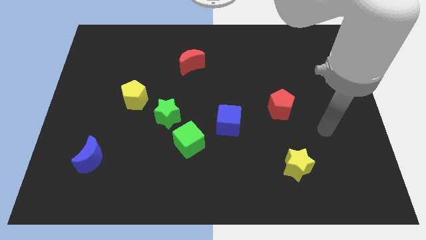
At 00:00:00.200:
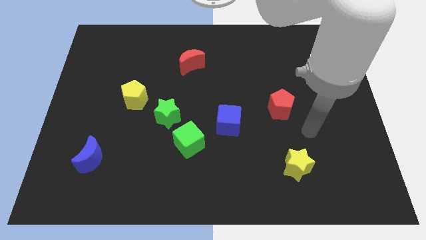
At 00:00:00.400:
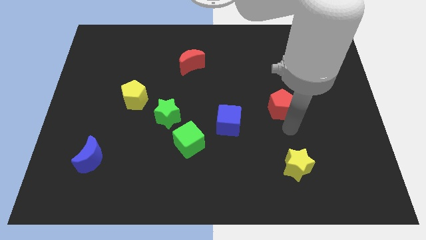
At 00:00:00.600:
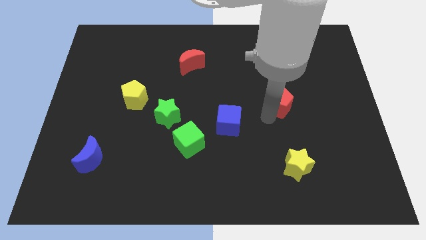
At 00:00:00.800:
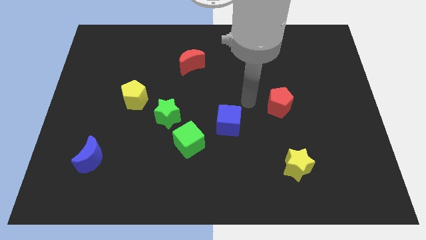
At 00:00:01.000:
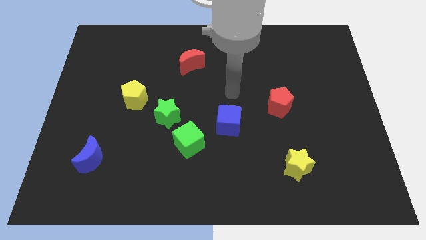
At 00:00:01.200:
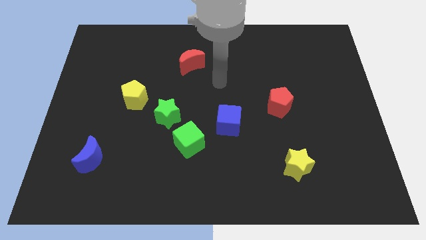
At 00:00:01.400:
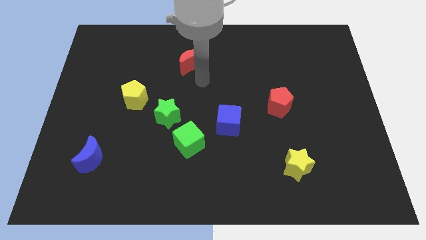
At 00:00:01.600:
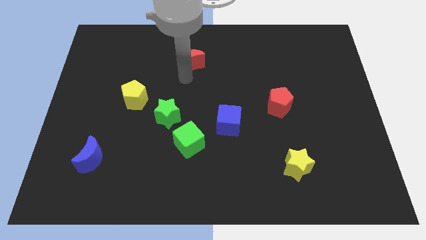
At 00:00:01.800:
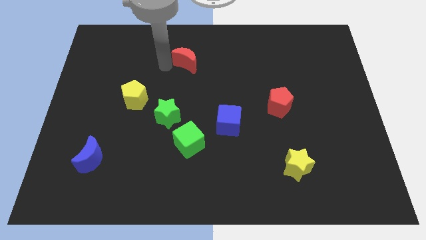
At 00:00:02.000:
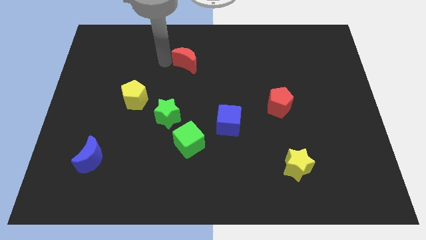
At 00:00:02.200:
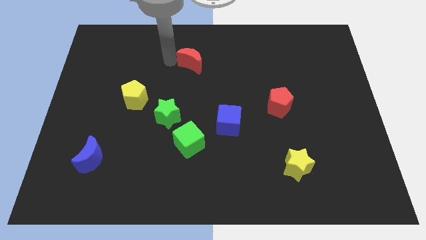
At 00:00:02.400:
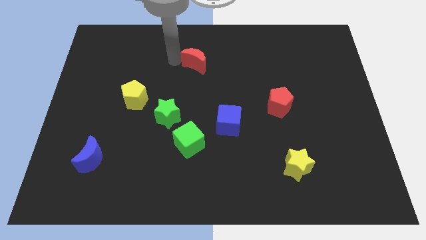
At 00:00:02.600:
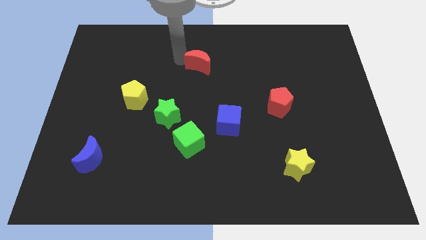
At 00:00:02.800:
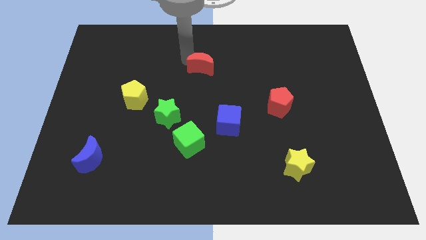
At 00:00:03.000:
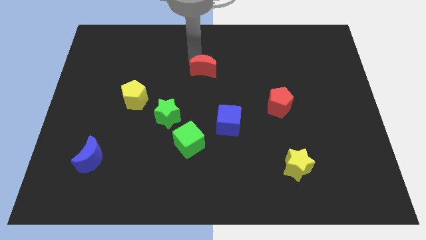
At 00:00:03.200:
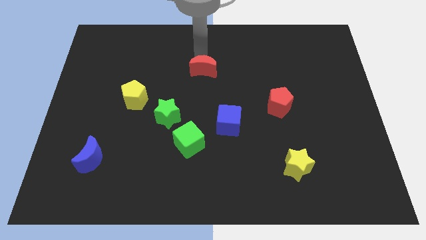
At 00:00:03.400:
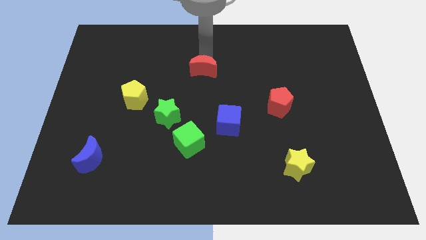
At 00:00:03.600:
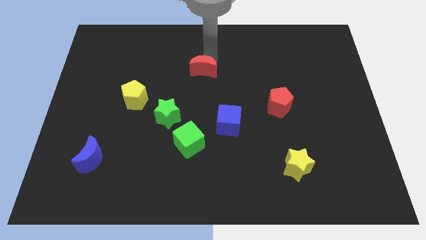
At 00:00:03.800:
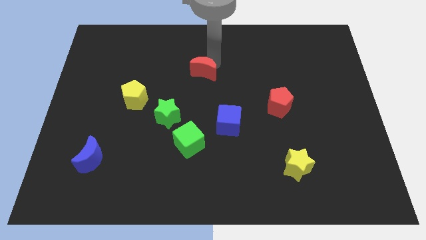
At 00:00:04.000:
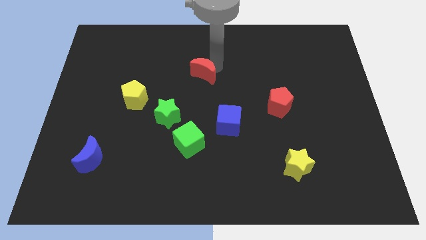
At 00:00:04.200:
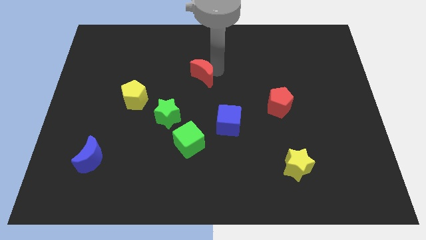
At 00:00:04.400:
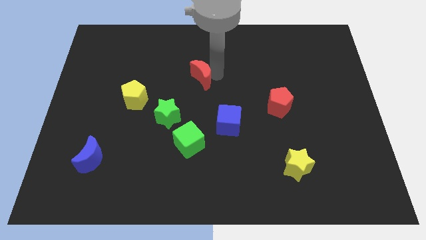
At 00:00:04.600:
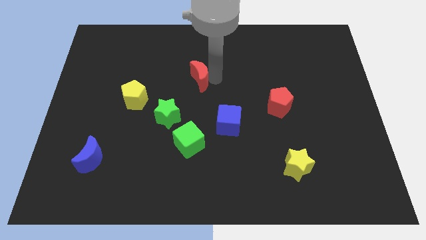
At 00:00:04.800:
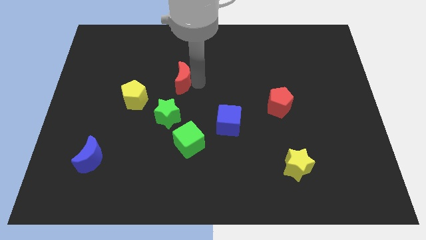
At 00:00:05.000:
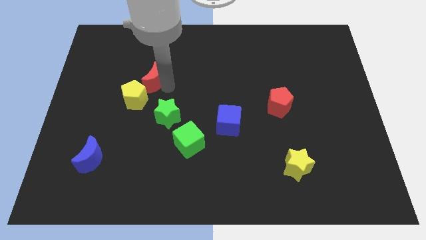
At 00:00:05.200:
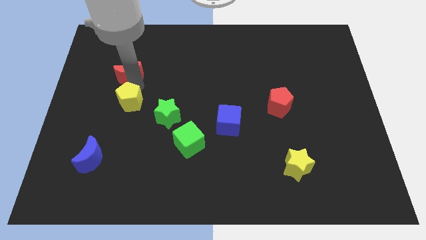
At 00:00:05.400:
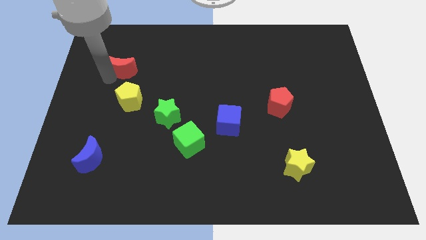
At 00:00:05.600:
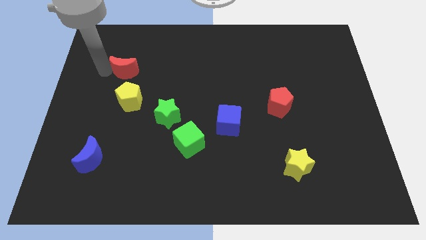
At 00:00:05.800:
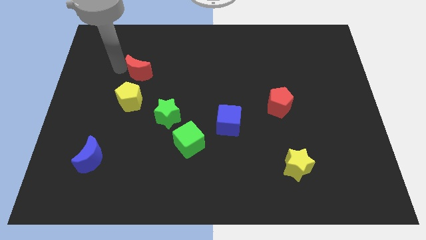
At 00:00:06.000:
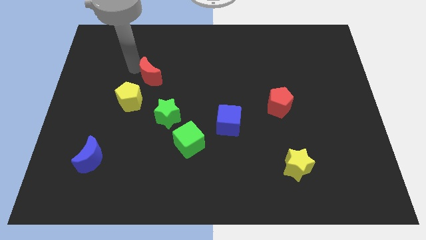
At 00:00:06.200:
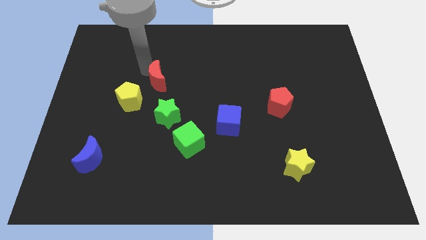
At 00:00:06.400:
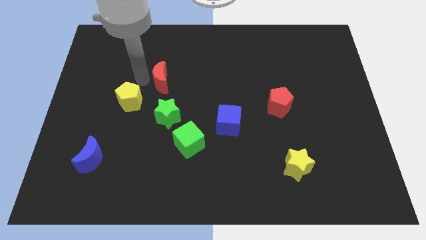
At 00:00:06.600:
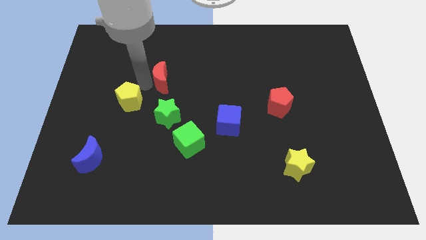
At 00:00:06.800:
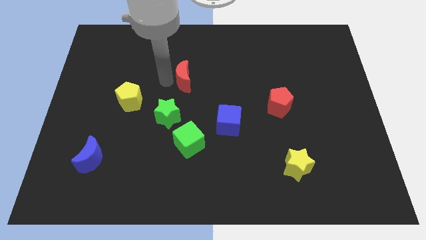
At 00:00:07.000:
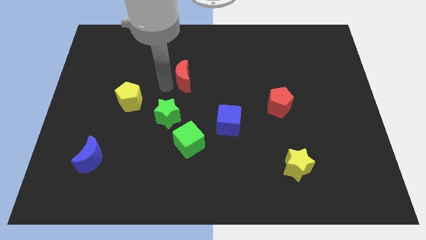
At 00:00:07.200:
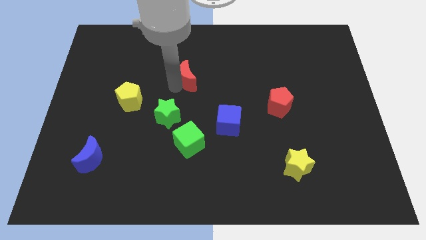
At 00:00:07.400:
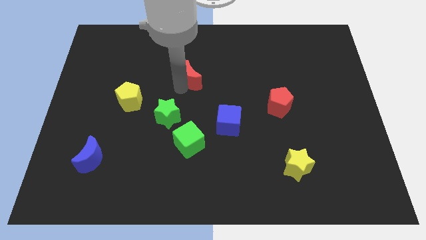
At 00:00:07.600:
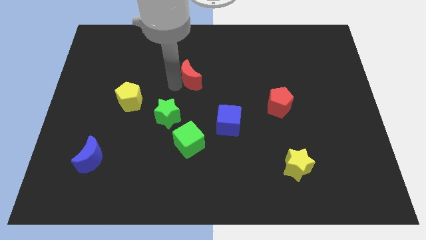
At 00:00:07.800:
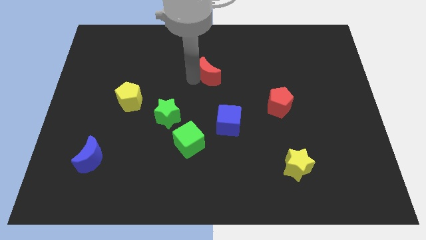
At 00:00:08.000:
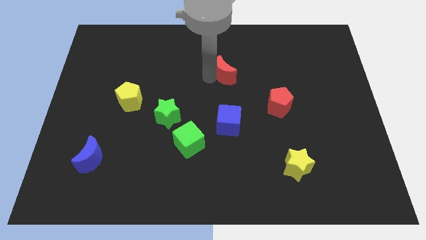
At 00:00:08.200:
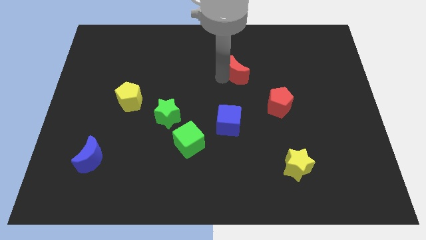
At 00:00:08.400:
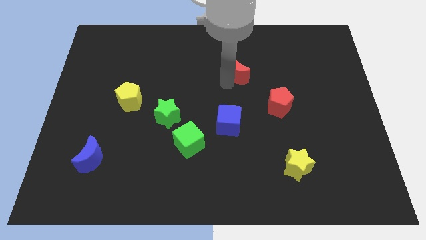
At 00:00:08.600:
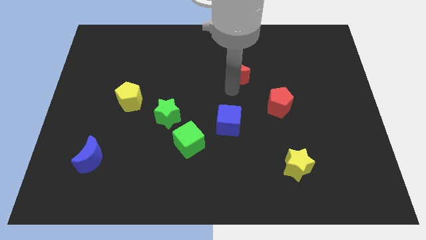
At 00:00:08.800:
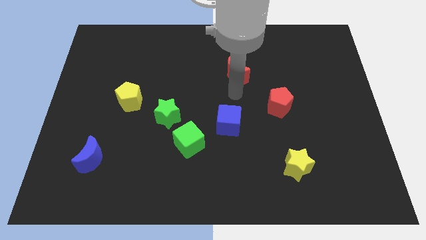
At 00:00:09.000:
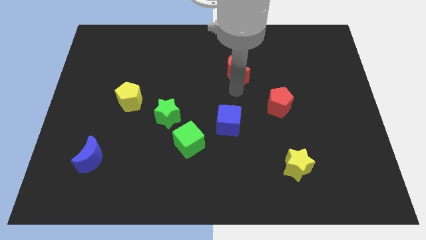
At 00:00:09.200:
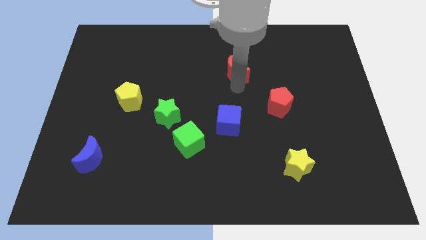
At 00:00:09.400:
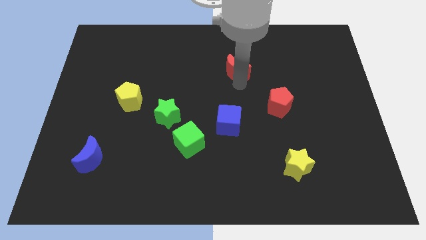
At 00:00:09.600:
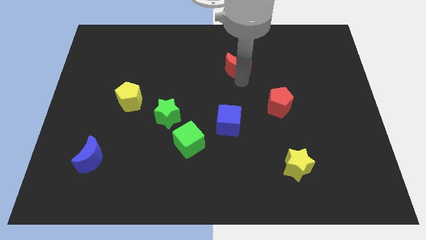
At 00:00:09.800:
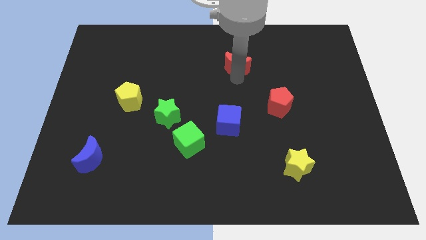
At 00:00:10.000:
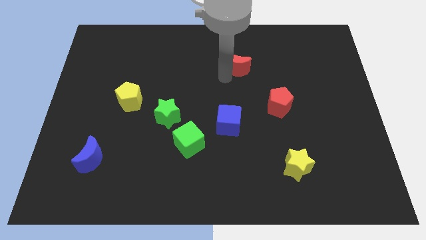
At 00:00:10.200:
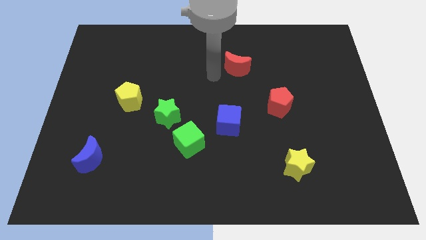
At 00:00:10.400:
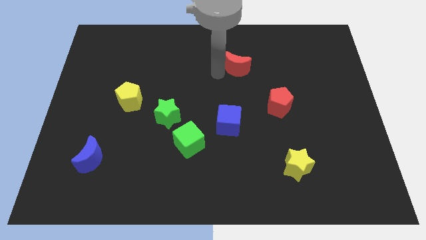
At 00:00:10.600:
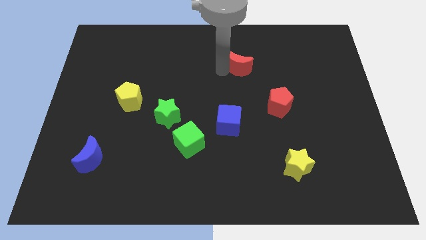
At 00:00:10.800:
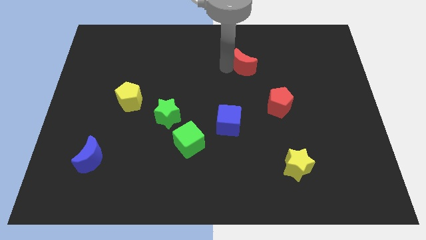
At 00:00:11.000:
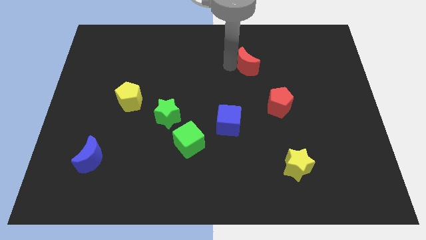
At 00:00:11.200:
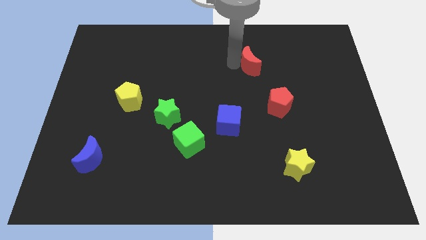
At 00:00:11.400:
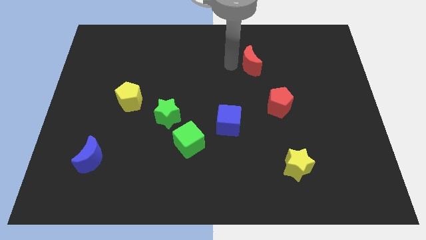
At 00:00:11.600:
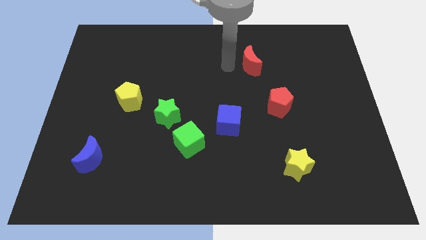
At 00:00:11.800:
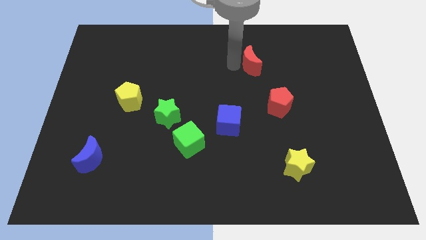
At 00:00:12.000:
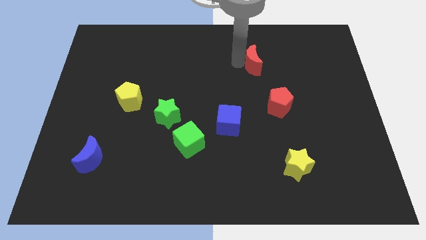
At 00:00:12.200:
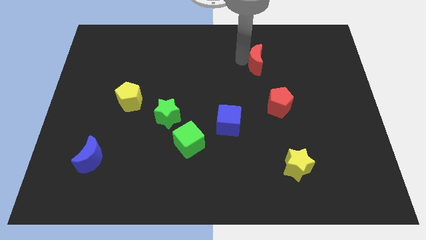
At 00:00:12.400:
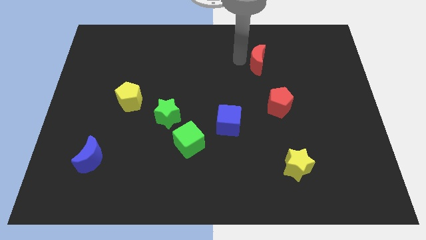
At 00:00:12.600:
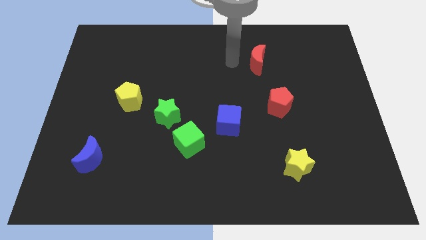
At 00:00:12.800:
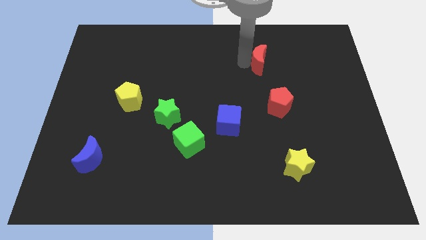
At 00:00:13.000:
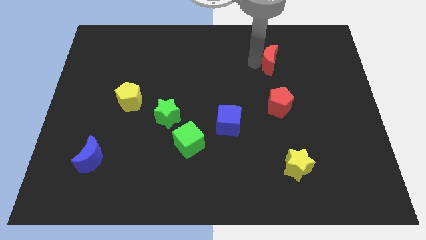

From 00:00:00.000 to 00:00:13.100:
slide the red moon right

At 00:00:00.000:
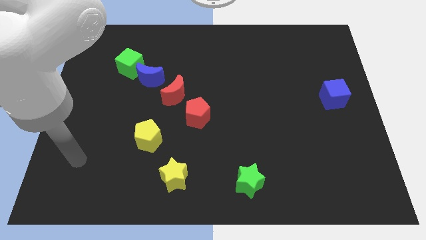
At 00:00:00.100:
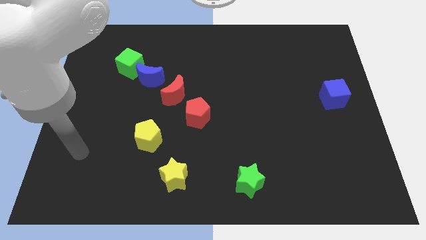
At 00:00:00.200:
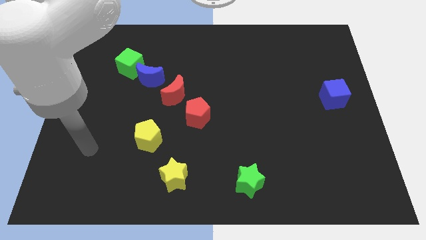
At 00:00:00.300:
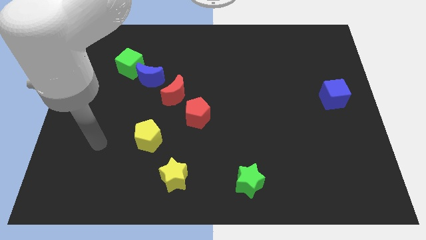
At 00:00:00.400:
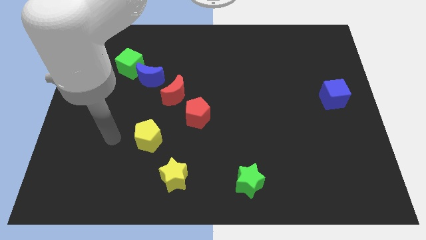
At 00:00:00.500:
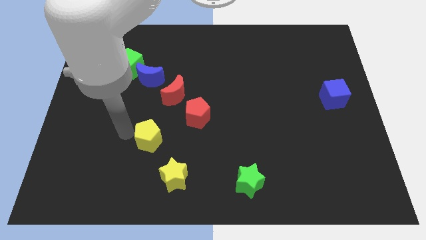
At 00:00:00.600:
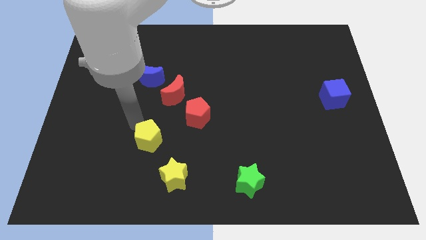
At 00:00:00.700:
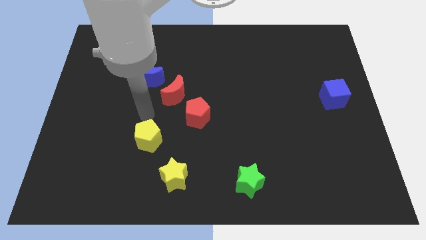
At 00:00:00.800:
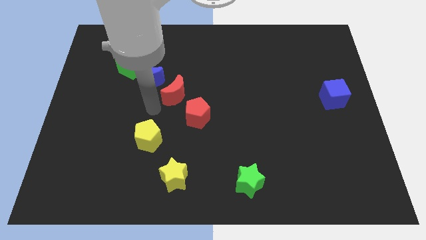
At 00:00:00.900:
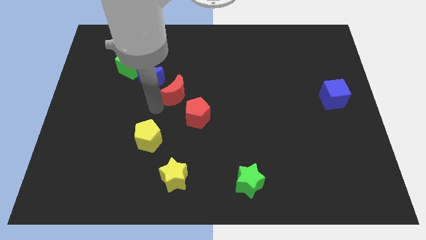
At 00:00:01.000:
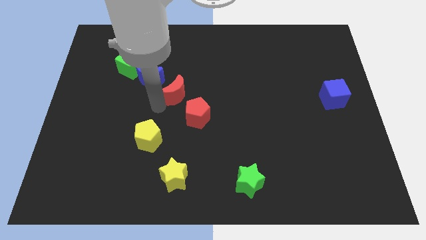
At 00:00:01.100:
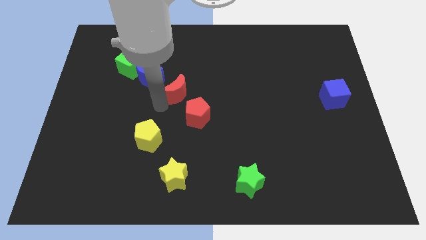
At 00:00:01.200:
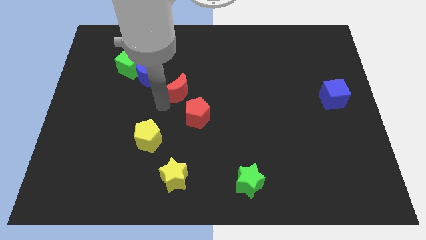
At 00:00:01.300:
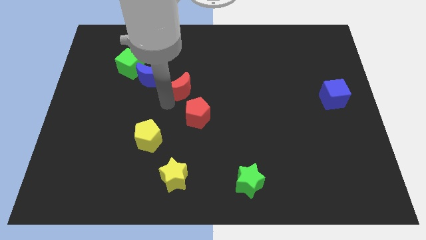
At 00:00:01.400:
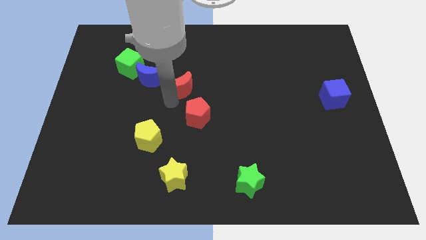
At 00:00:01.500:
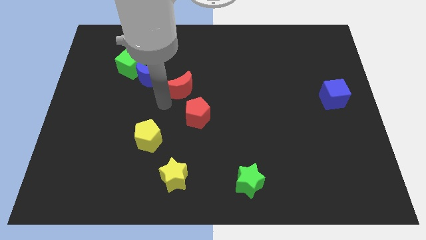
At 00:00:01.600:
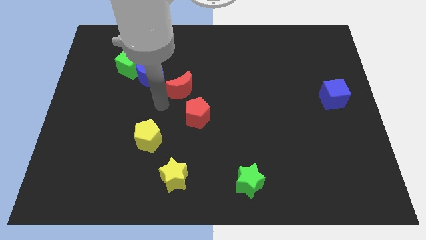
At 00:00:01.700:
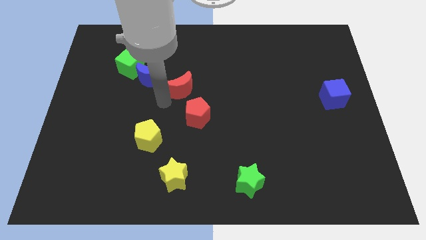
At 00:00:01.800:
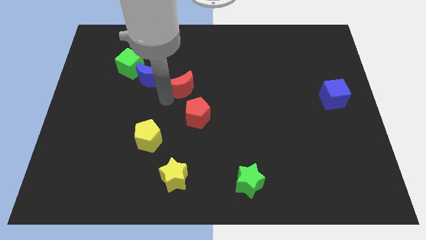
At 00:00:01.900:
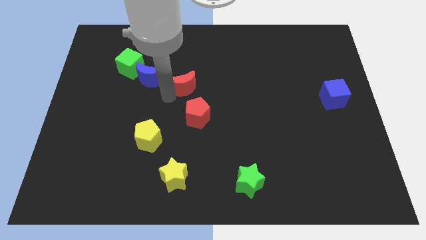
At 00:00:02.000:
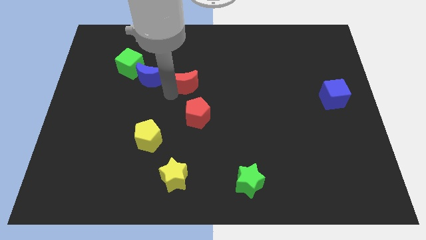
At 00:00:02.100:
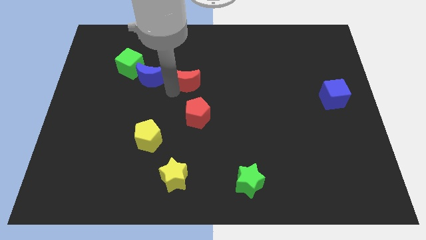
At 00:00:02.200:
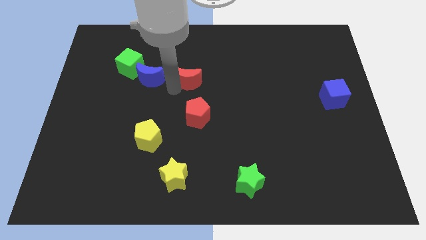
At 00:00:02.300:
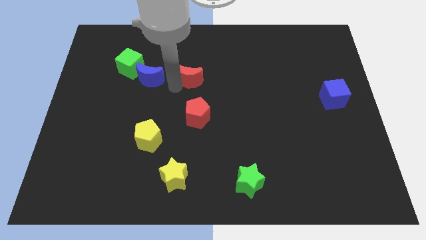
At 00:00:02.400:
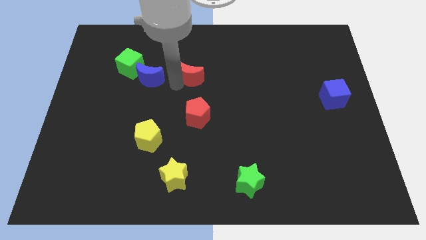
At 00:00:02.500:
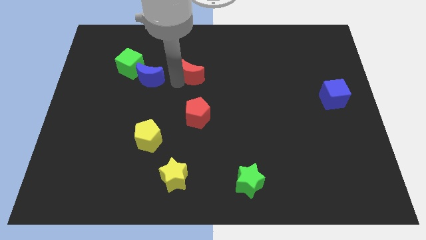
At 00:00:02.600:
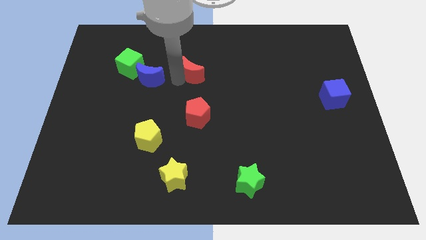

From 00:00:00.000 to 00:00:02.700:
move the red moon diagonally up and right a little bit
